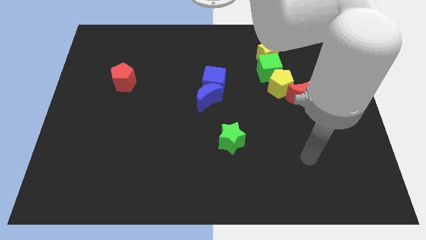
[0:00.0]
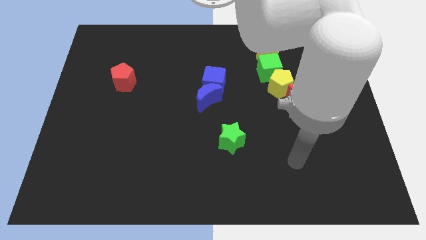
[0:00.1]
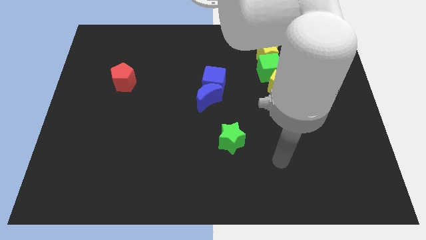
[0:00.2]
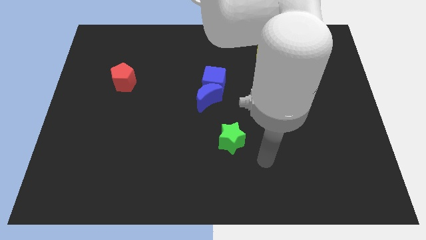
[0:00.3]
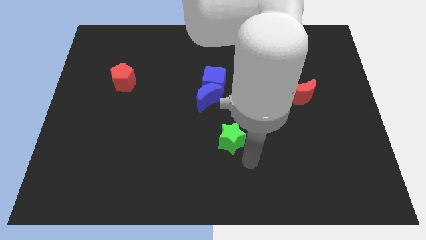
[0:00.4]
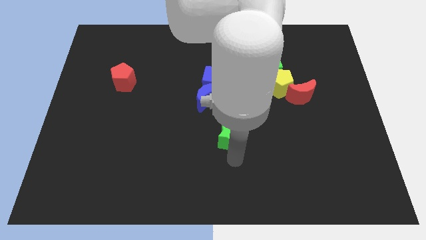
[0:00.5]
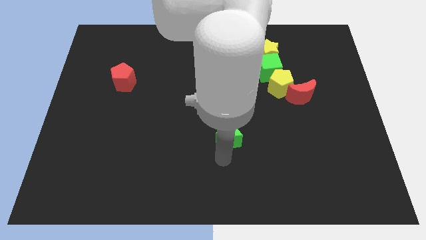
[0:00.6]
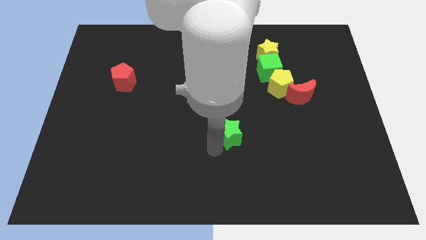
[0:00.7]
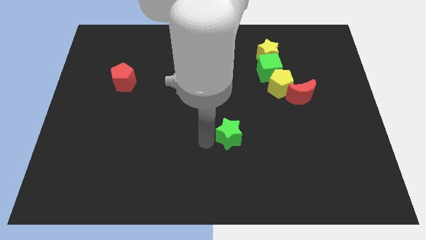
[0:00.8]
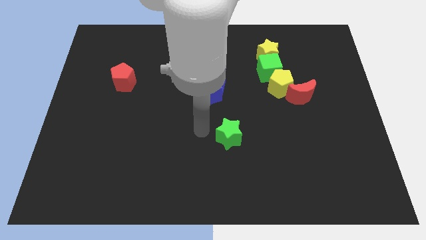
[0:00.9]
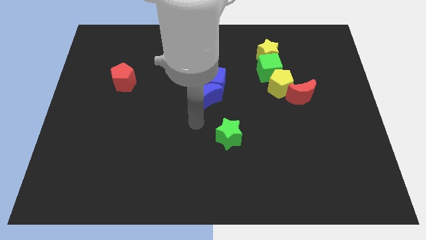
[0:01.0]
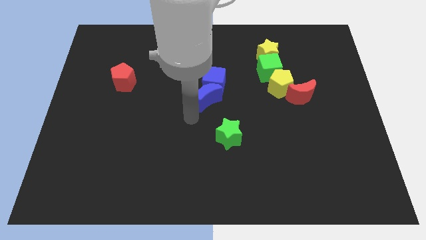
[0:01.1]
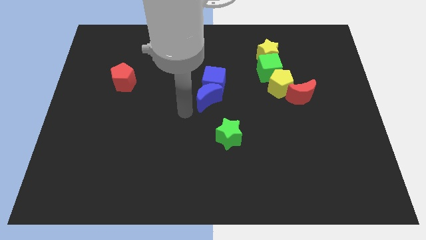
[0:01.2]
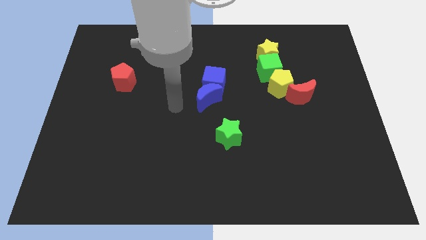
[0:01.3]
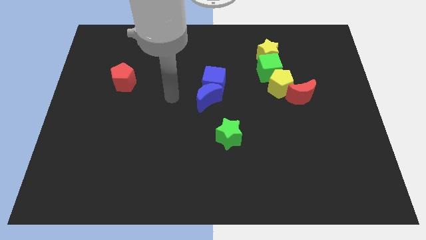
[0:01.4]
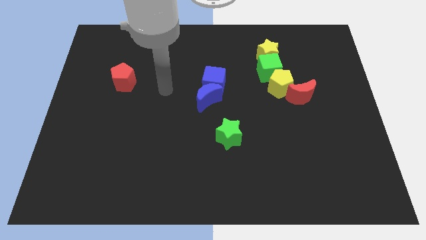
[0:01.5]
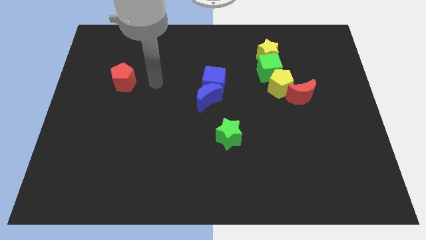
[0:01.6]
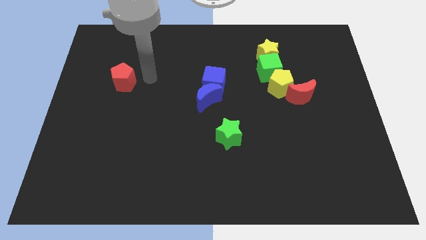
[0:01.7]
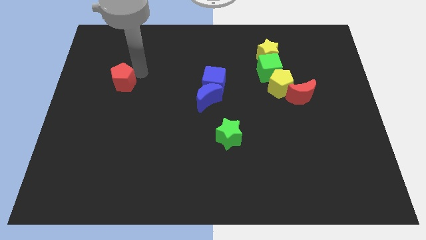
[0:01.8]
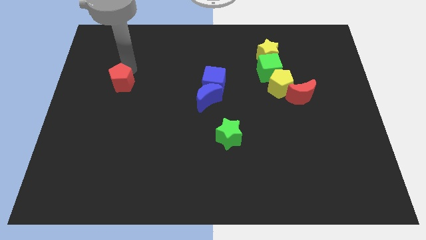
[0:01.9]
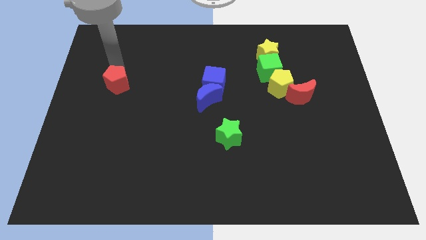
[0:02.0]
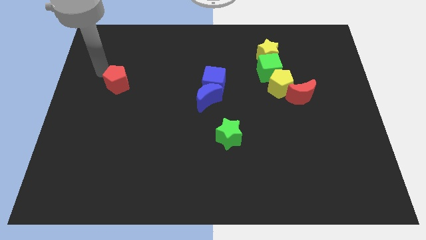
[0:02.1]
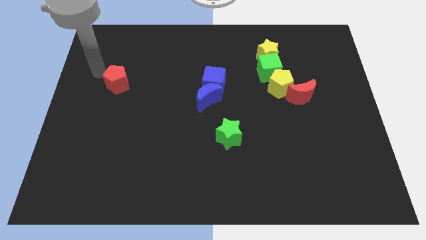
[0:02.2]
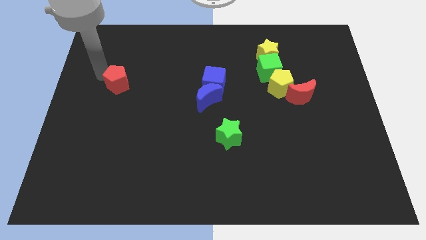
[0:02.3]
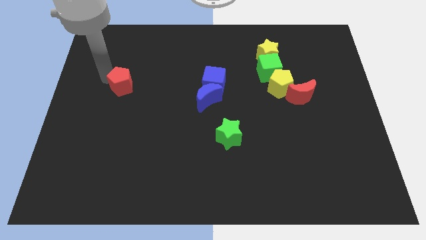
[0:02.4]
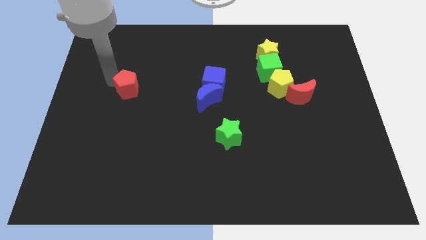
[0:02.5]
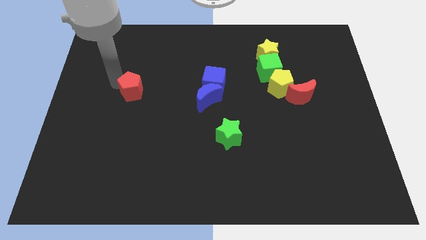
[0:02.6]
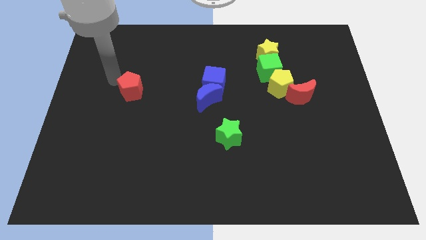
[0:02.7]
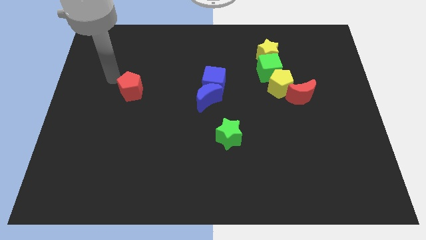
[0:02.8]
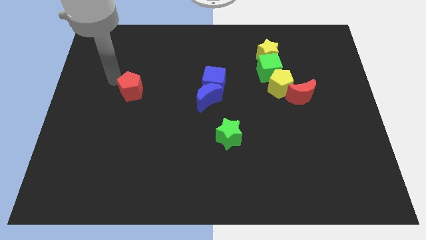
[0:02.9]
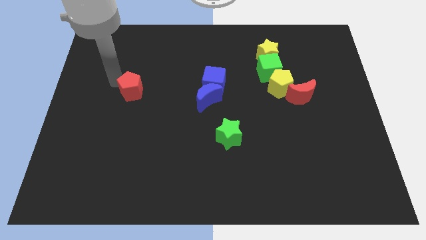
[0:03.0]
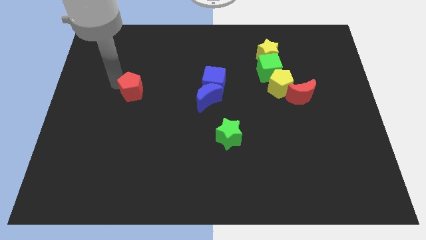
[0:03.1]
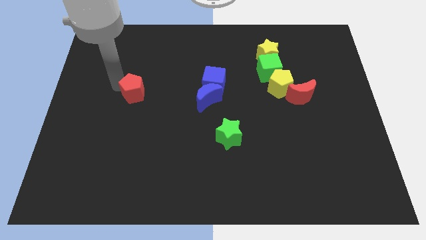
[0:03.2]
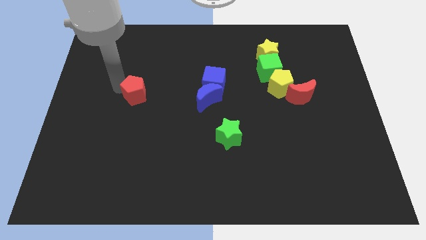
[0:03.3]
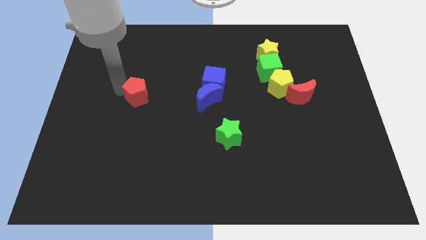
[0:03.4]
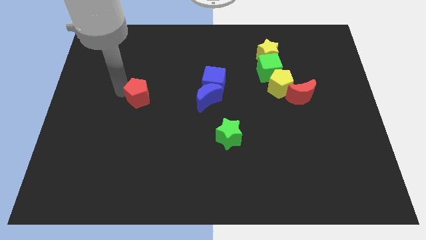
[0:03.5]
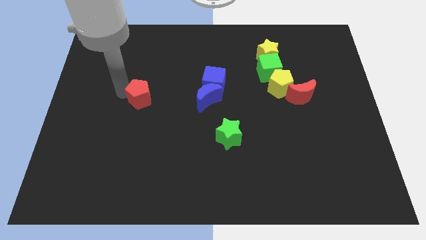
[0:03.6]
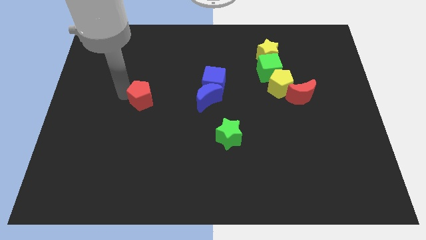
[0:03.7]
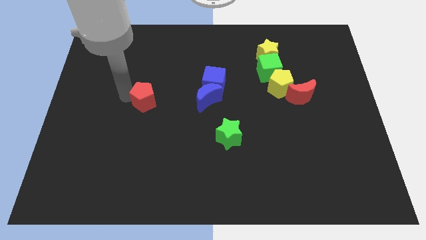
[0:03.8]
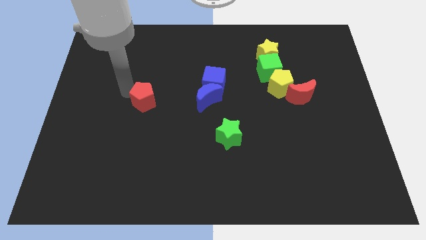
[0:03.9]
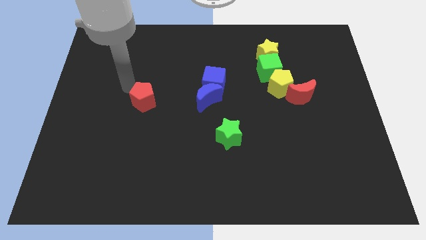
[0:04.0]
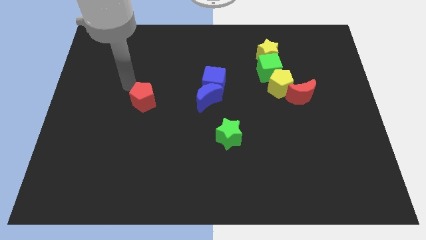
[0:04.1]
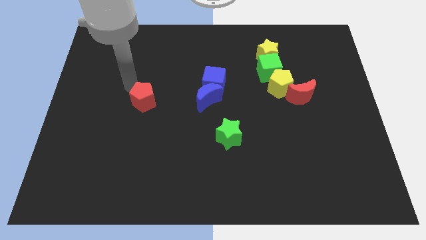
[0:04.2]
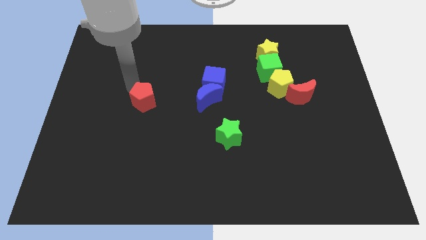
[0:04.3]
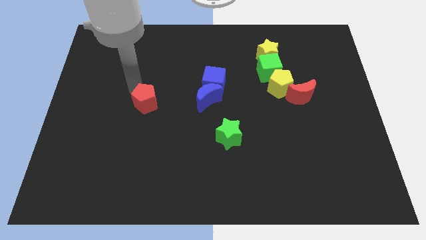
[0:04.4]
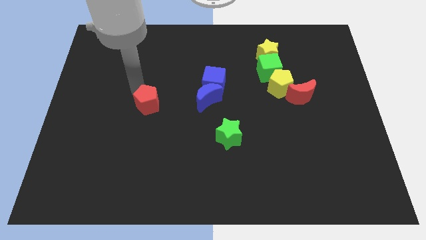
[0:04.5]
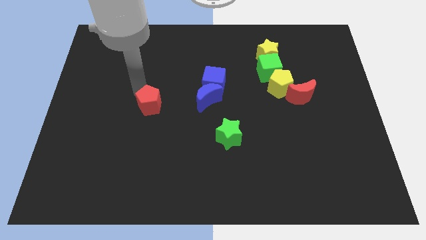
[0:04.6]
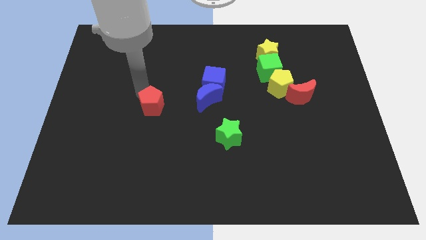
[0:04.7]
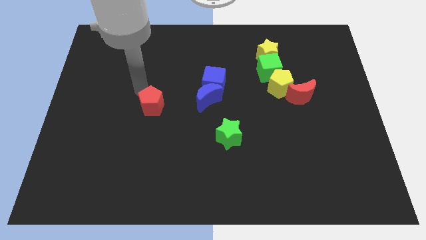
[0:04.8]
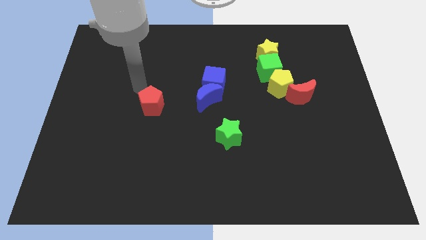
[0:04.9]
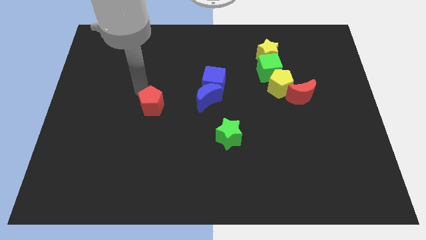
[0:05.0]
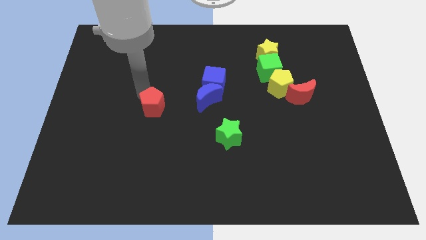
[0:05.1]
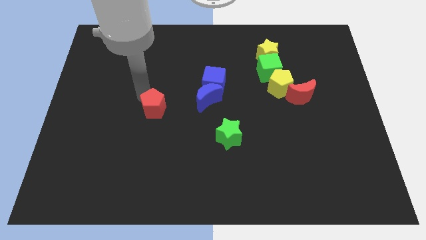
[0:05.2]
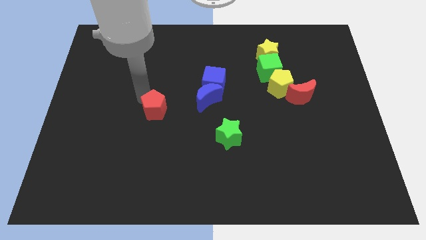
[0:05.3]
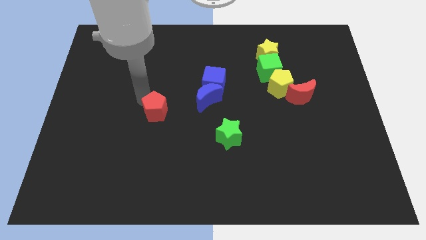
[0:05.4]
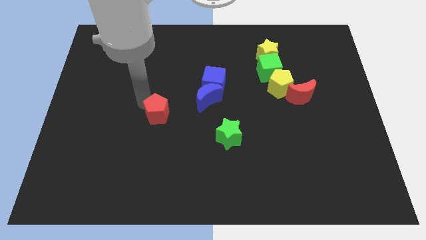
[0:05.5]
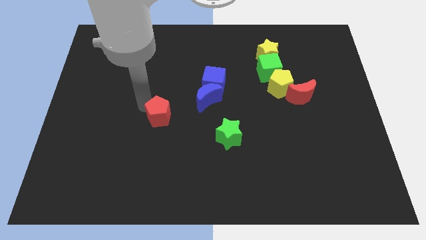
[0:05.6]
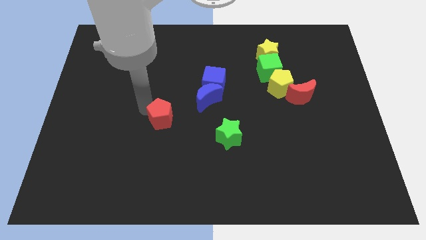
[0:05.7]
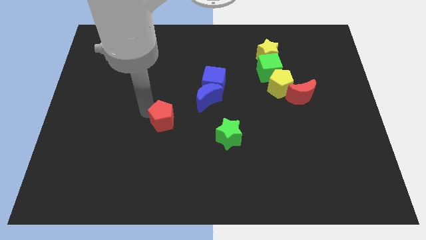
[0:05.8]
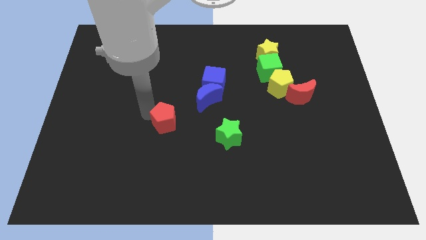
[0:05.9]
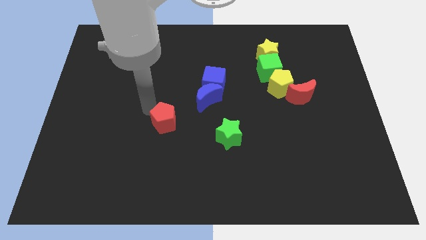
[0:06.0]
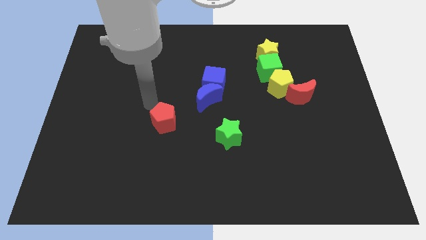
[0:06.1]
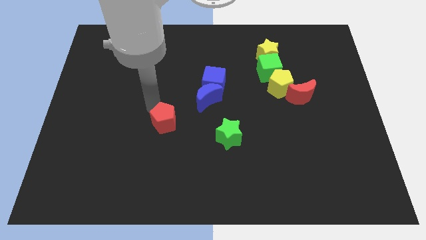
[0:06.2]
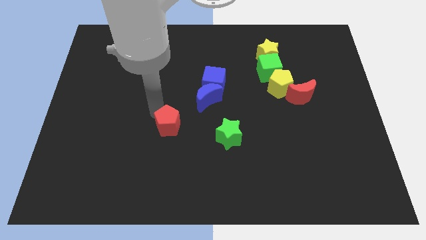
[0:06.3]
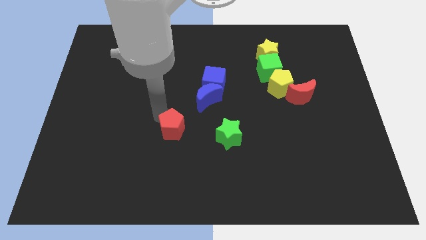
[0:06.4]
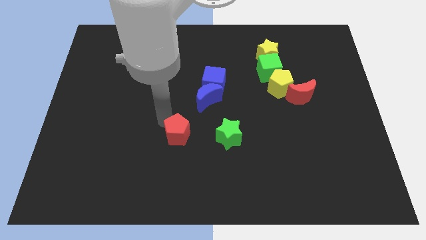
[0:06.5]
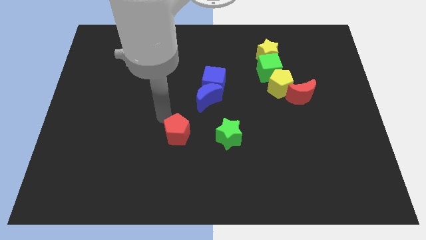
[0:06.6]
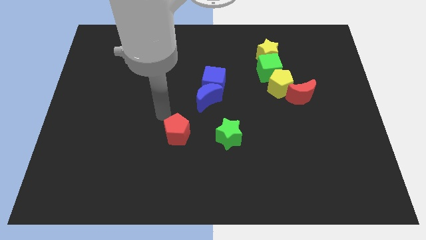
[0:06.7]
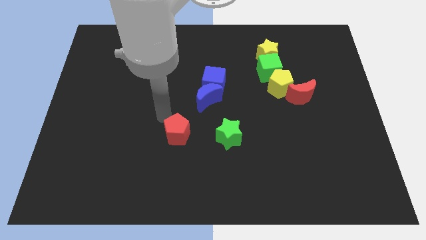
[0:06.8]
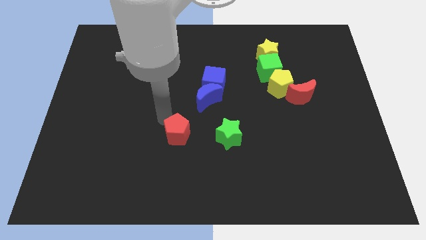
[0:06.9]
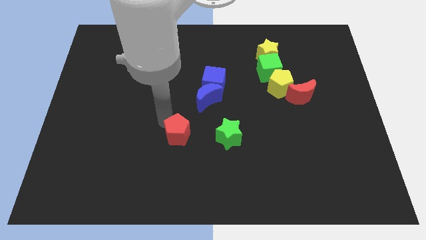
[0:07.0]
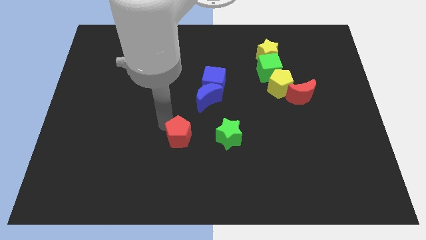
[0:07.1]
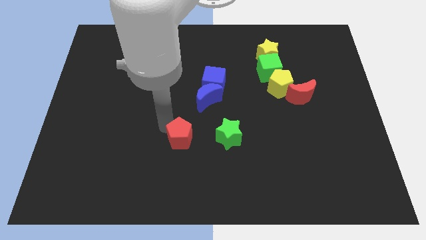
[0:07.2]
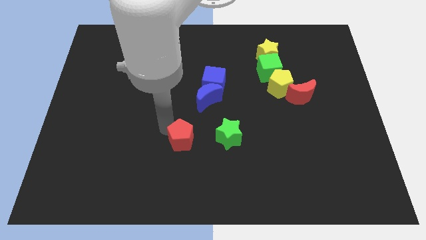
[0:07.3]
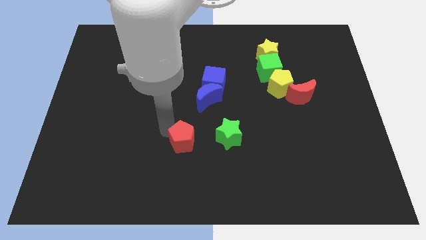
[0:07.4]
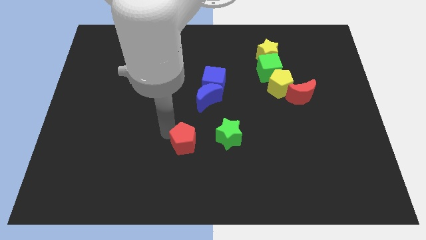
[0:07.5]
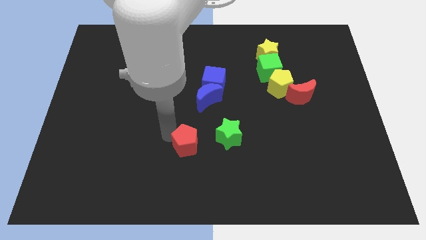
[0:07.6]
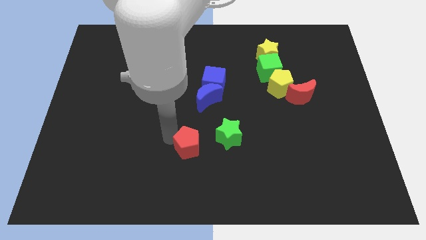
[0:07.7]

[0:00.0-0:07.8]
push the red pentagon to the bottom left side of the green star
